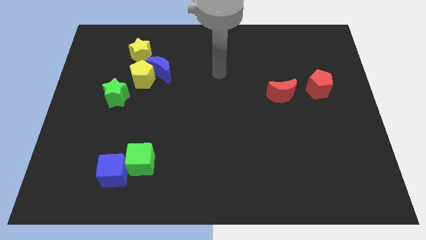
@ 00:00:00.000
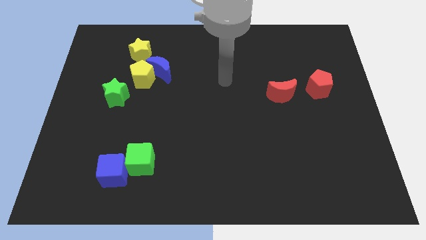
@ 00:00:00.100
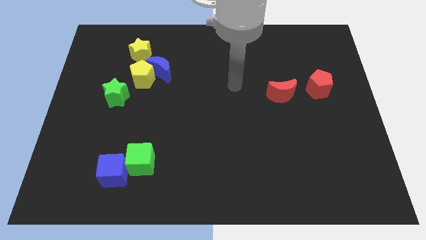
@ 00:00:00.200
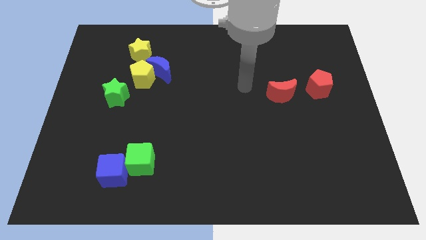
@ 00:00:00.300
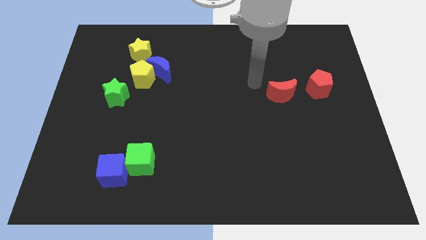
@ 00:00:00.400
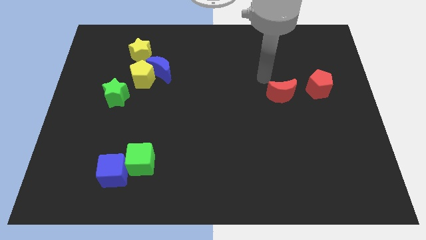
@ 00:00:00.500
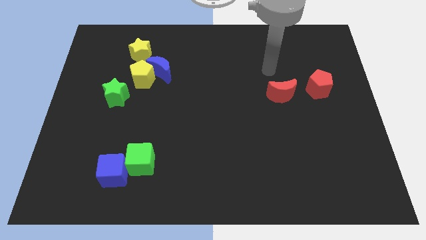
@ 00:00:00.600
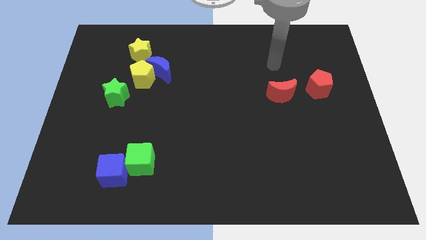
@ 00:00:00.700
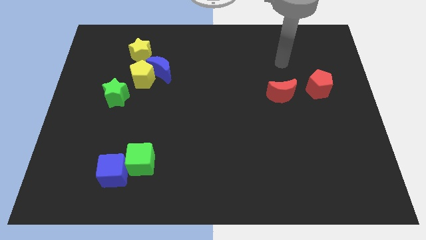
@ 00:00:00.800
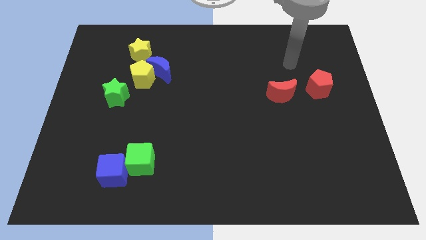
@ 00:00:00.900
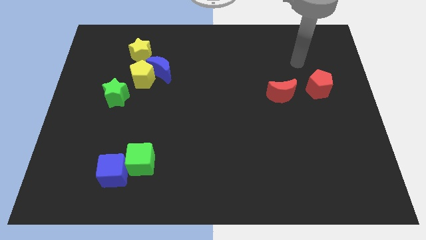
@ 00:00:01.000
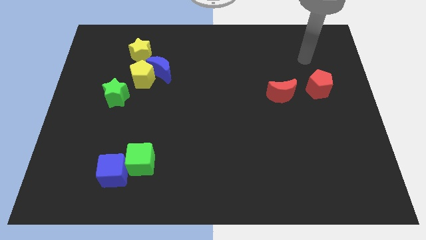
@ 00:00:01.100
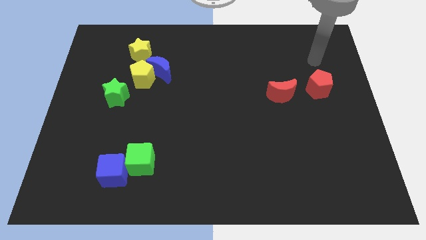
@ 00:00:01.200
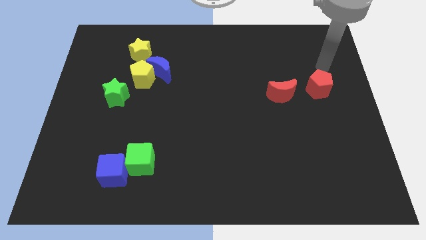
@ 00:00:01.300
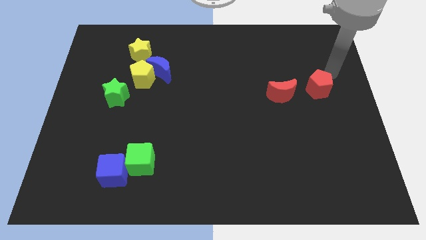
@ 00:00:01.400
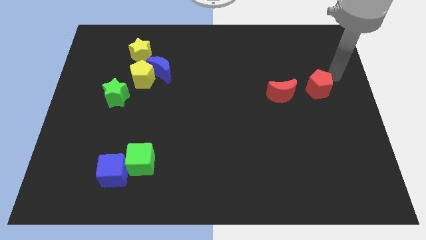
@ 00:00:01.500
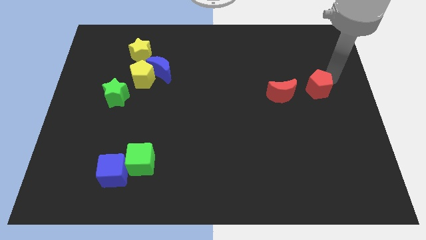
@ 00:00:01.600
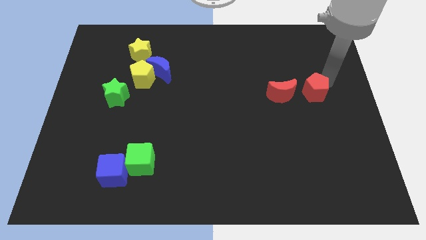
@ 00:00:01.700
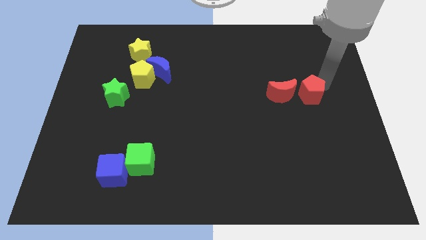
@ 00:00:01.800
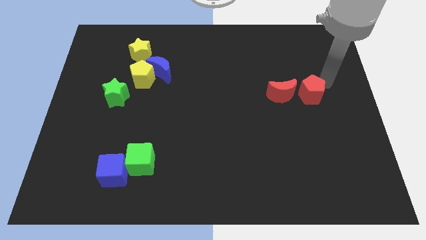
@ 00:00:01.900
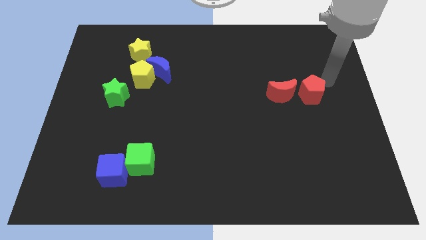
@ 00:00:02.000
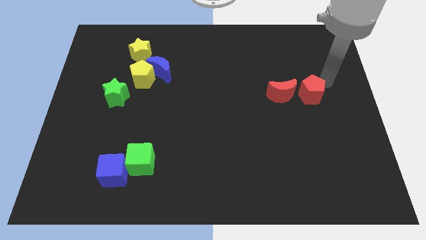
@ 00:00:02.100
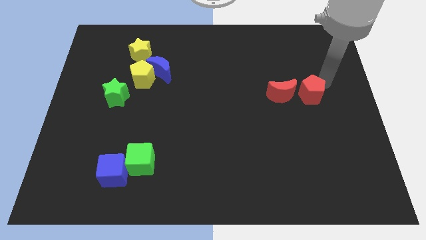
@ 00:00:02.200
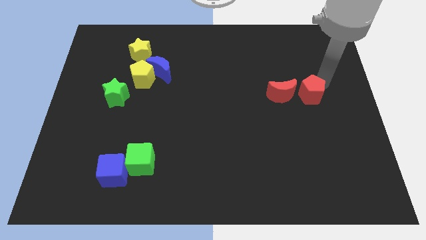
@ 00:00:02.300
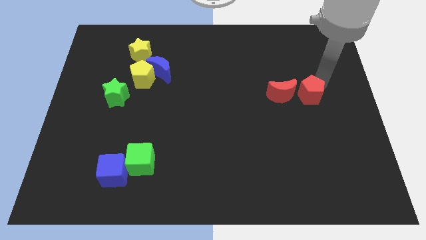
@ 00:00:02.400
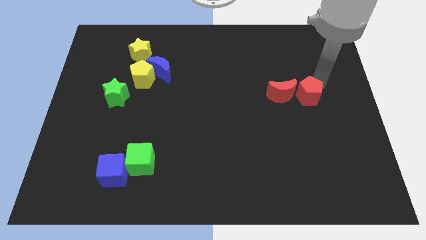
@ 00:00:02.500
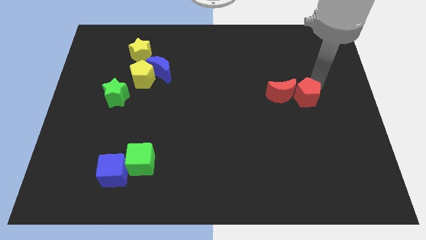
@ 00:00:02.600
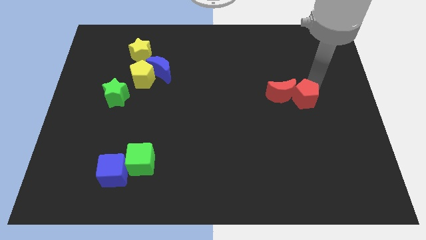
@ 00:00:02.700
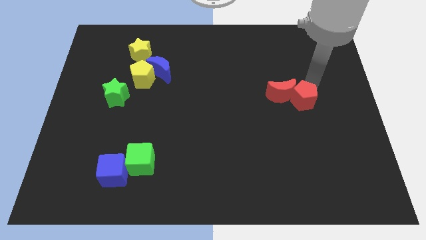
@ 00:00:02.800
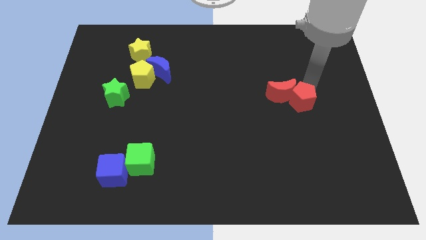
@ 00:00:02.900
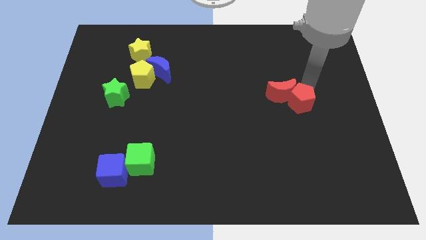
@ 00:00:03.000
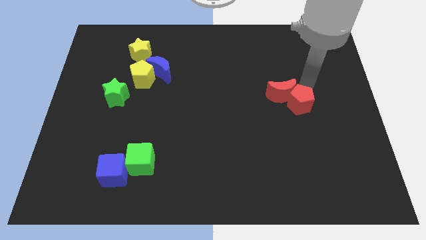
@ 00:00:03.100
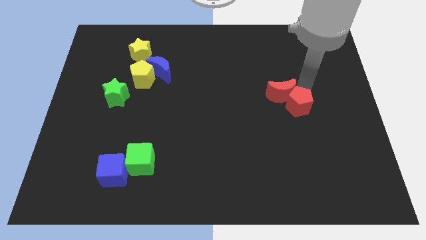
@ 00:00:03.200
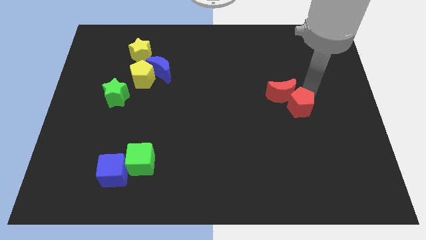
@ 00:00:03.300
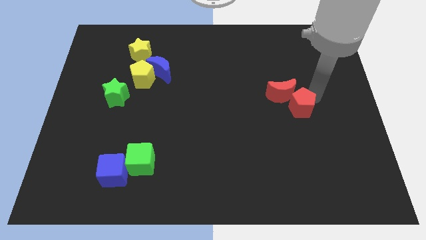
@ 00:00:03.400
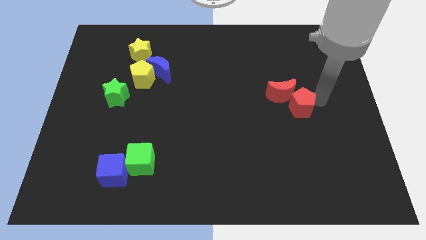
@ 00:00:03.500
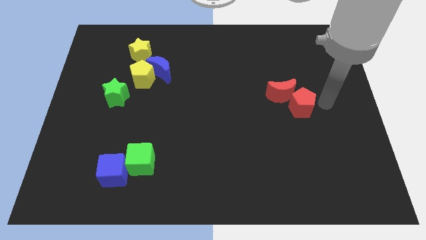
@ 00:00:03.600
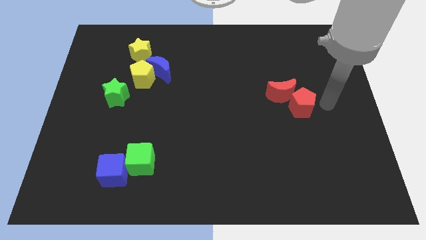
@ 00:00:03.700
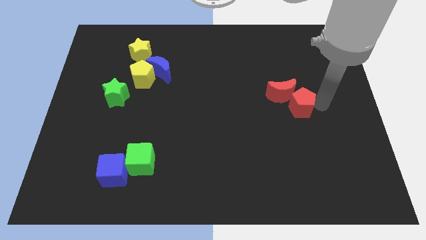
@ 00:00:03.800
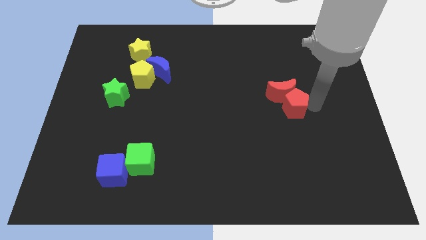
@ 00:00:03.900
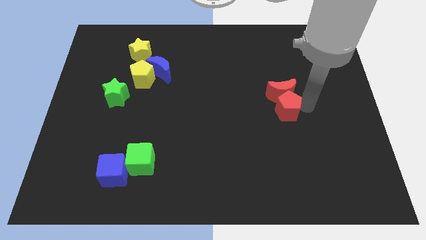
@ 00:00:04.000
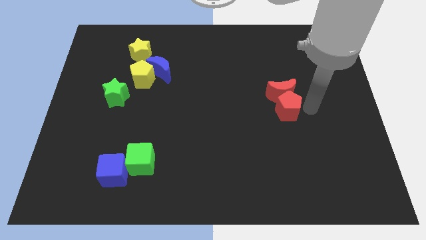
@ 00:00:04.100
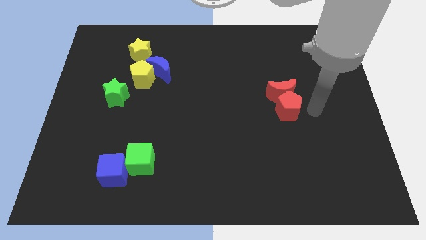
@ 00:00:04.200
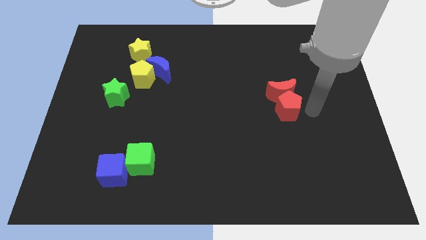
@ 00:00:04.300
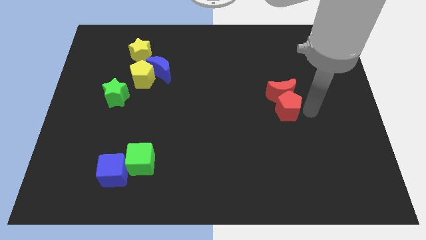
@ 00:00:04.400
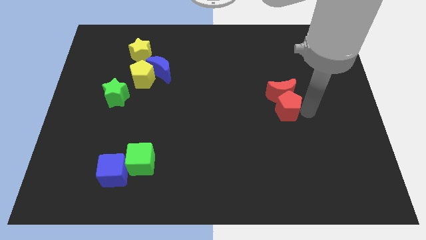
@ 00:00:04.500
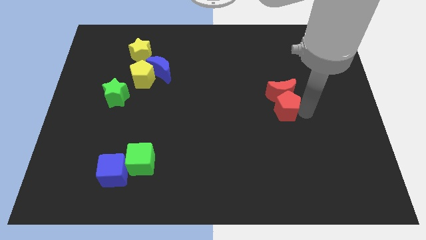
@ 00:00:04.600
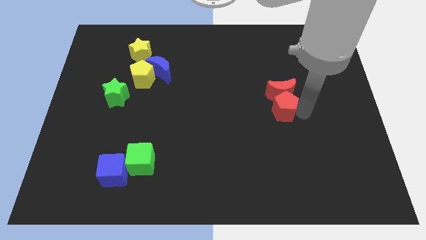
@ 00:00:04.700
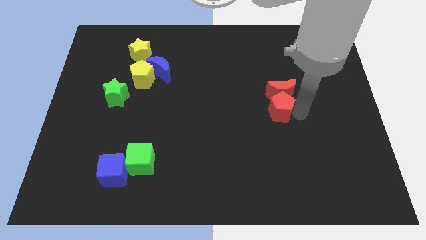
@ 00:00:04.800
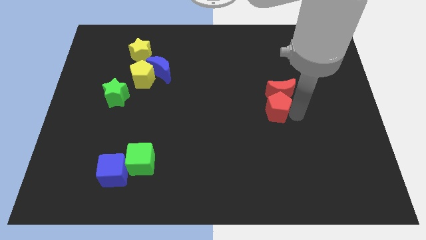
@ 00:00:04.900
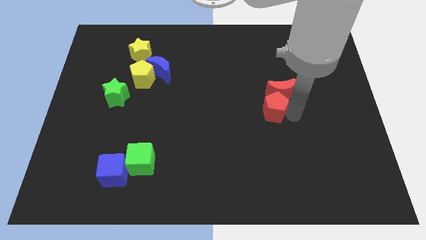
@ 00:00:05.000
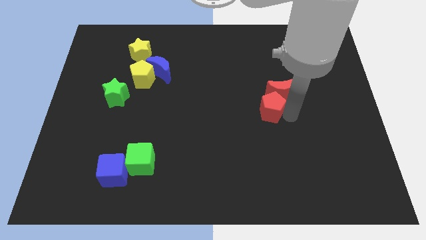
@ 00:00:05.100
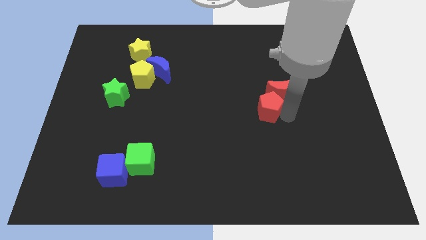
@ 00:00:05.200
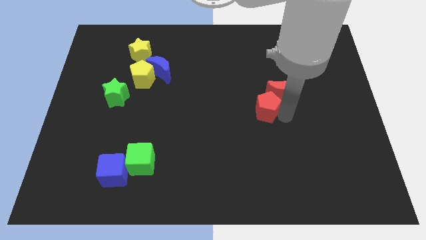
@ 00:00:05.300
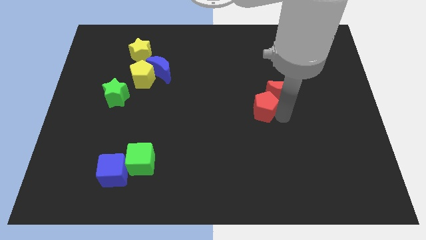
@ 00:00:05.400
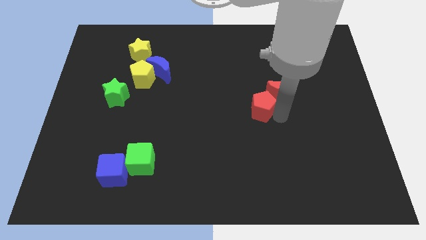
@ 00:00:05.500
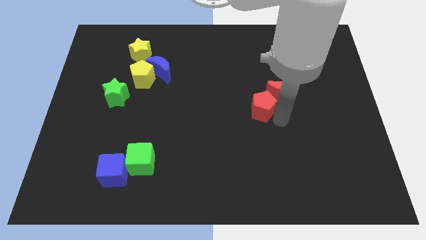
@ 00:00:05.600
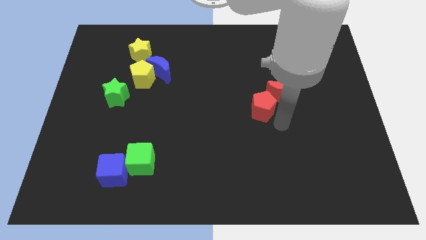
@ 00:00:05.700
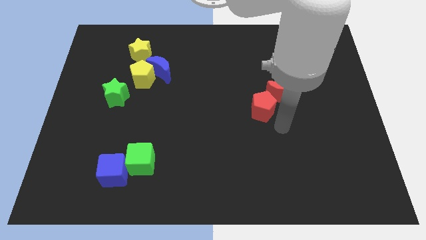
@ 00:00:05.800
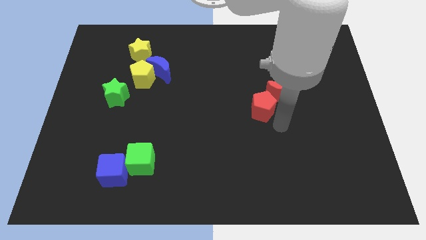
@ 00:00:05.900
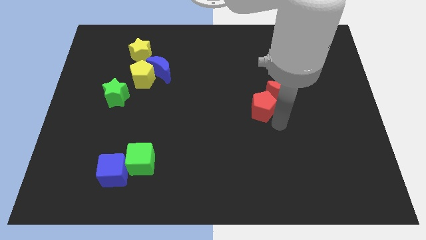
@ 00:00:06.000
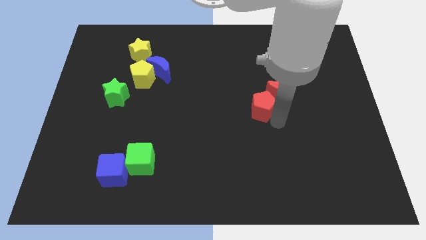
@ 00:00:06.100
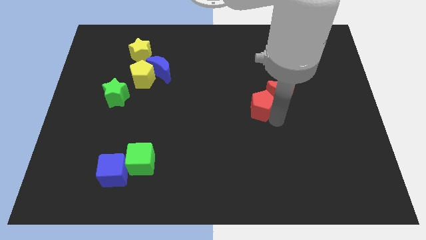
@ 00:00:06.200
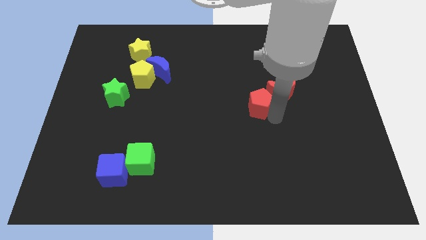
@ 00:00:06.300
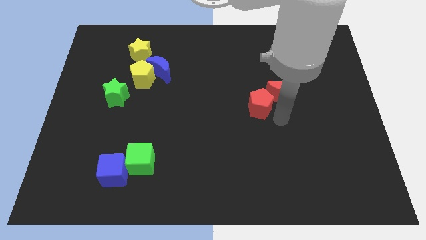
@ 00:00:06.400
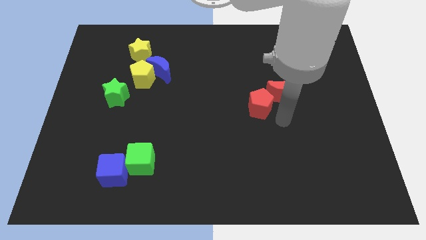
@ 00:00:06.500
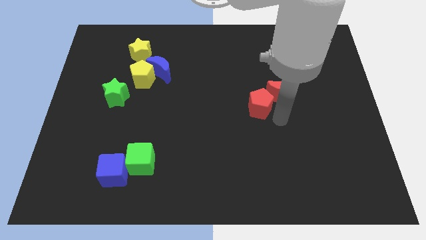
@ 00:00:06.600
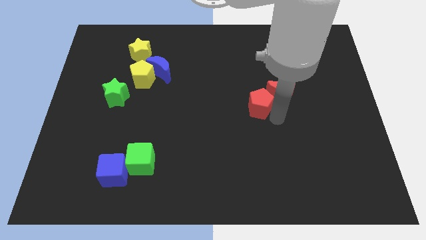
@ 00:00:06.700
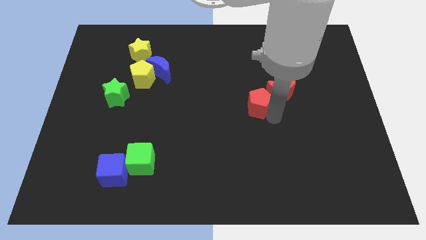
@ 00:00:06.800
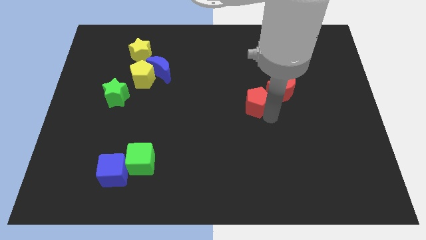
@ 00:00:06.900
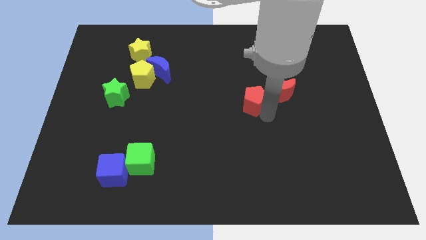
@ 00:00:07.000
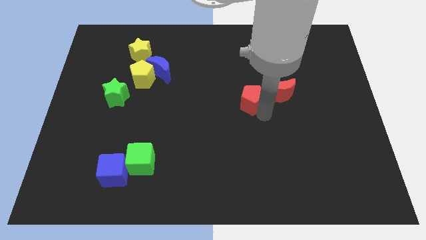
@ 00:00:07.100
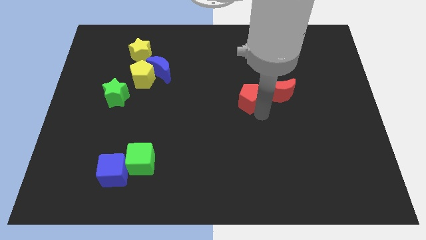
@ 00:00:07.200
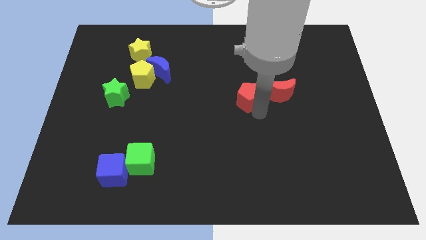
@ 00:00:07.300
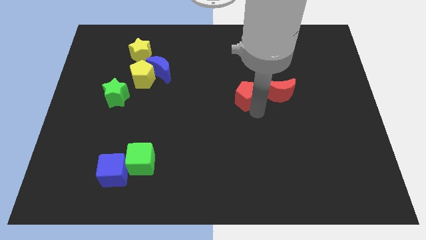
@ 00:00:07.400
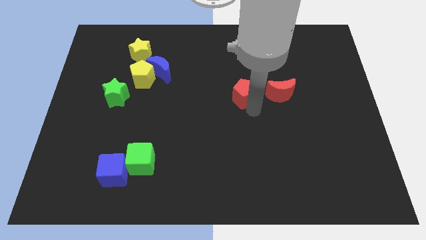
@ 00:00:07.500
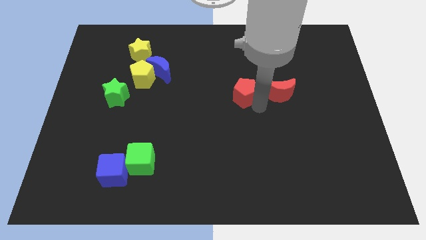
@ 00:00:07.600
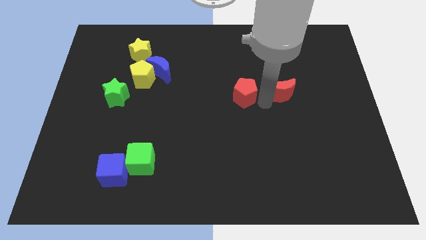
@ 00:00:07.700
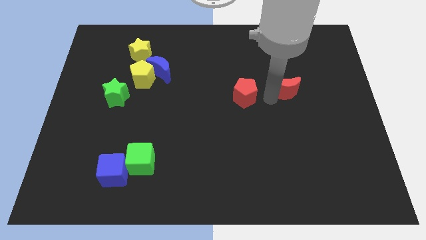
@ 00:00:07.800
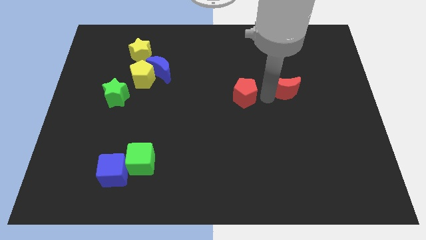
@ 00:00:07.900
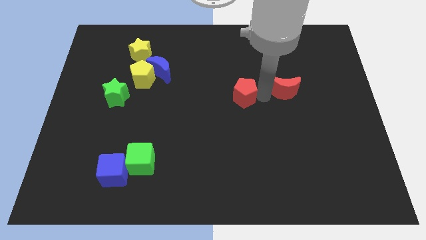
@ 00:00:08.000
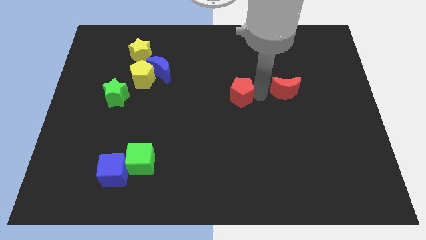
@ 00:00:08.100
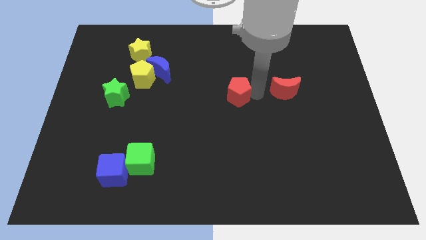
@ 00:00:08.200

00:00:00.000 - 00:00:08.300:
slide the red pentagon left

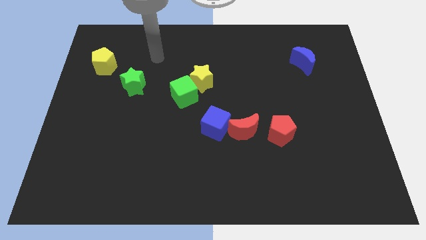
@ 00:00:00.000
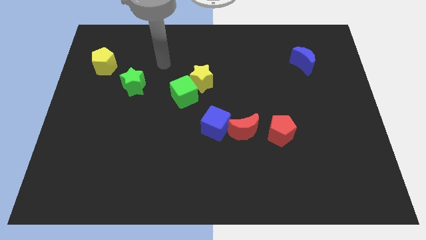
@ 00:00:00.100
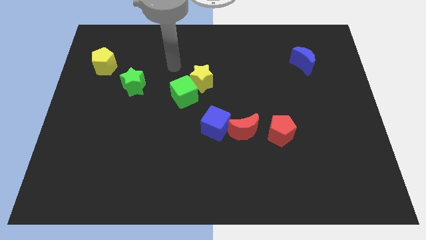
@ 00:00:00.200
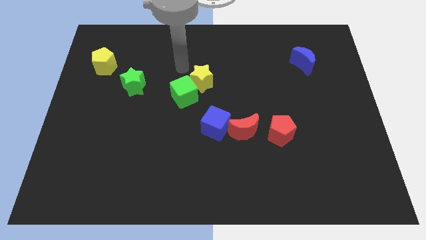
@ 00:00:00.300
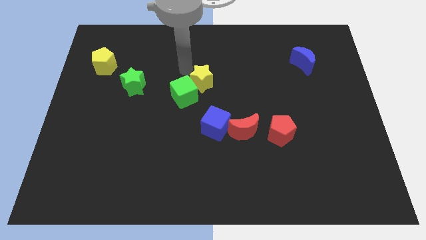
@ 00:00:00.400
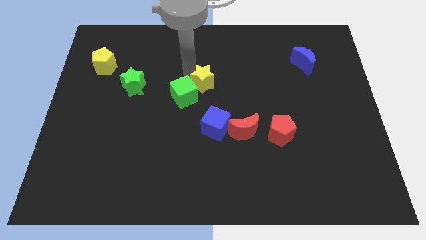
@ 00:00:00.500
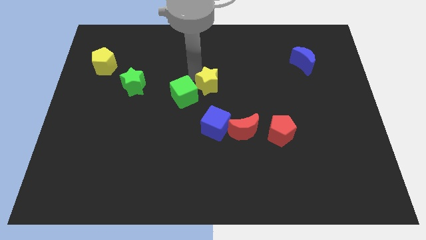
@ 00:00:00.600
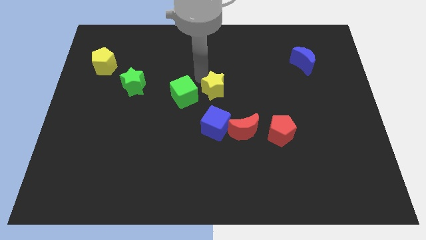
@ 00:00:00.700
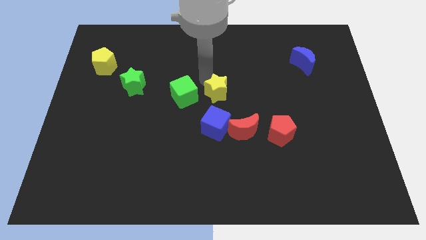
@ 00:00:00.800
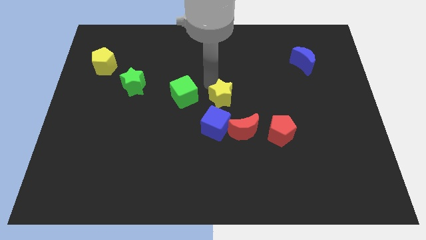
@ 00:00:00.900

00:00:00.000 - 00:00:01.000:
slightly slide the yellow star downwards and then to the right
